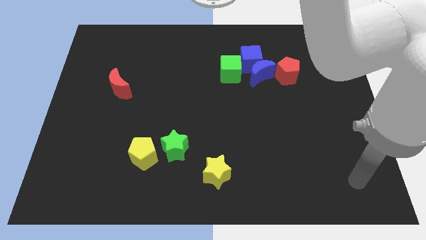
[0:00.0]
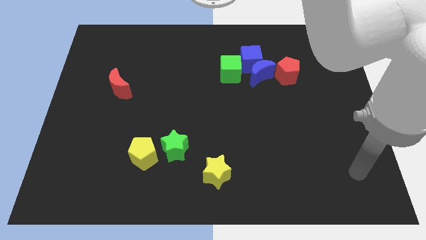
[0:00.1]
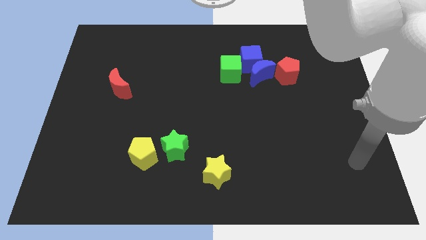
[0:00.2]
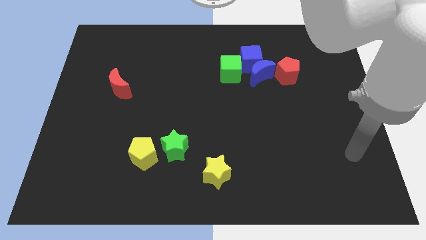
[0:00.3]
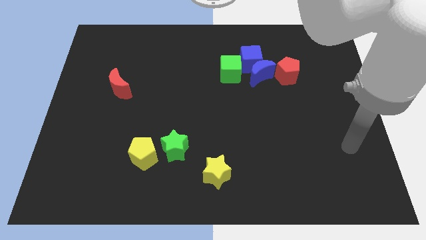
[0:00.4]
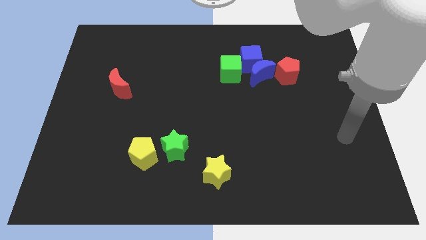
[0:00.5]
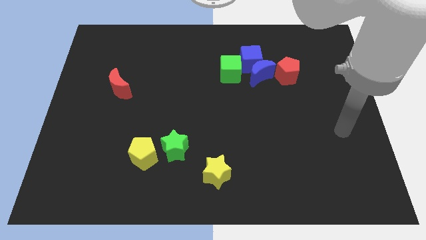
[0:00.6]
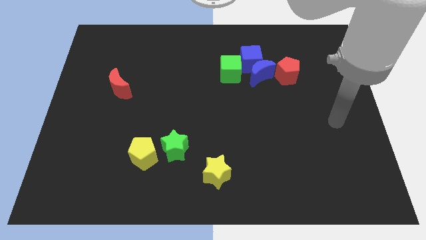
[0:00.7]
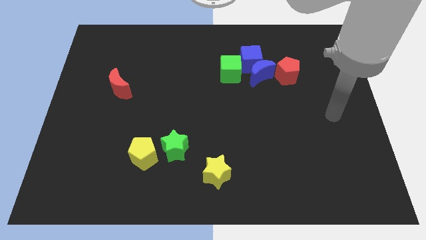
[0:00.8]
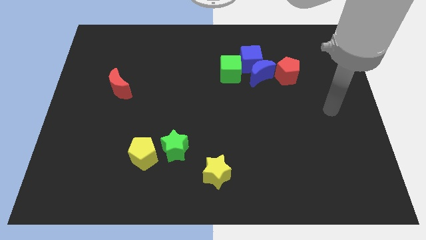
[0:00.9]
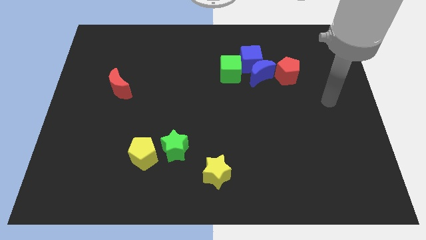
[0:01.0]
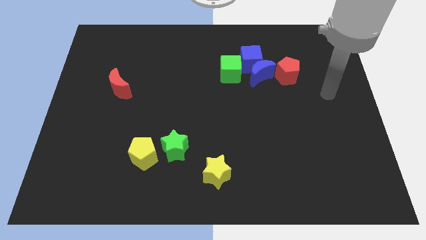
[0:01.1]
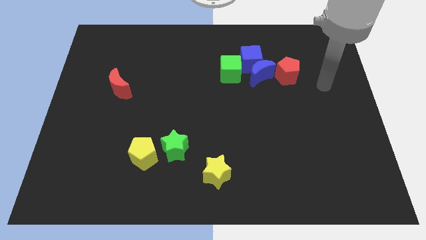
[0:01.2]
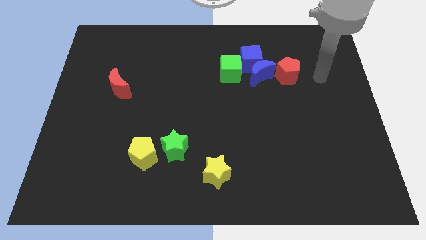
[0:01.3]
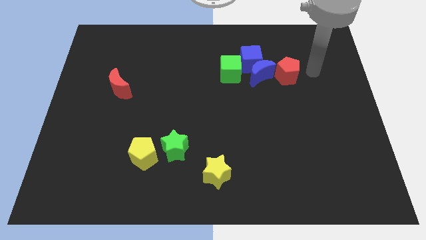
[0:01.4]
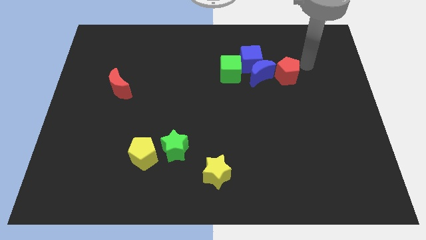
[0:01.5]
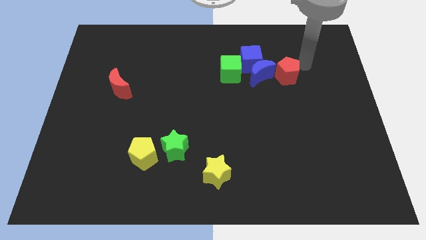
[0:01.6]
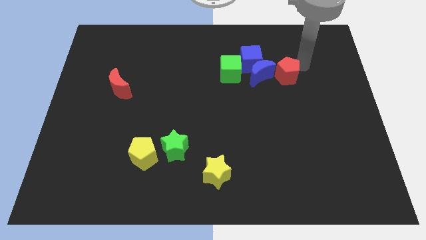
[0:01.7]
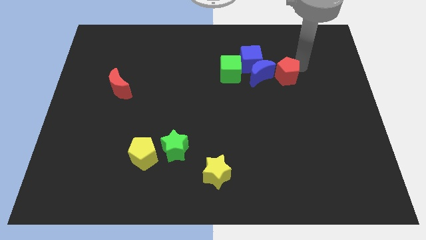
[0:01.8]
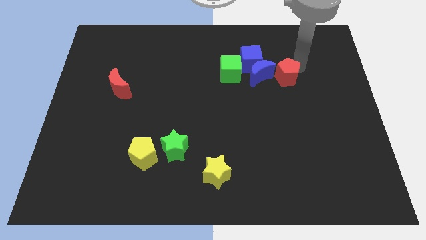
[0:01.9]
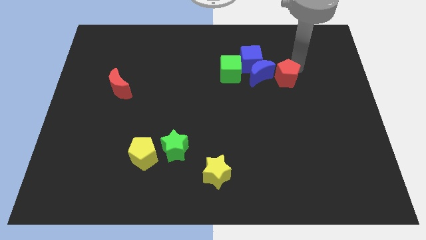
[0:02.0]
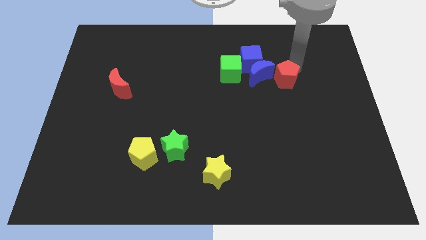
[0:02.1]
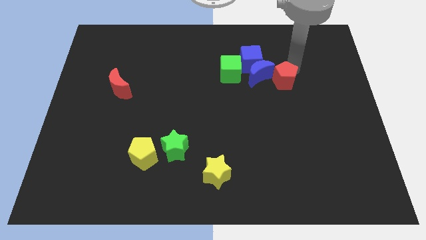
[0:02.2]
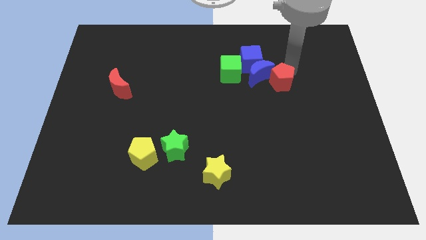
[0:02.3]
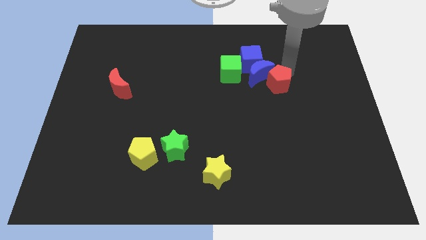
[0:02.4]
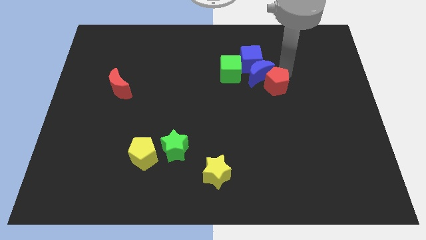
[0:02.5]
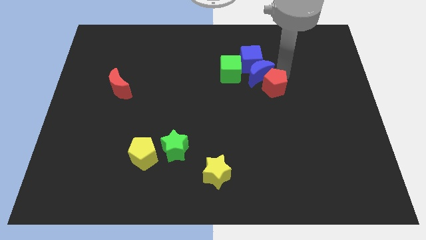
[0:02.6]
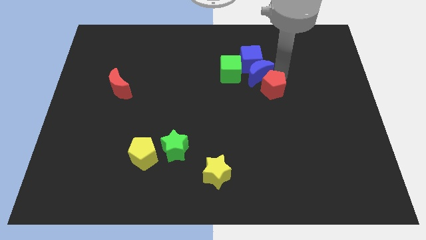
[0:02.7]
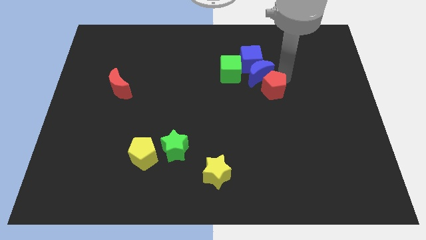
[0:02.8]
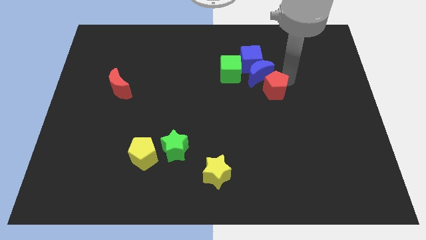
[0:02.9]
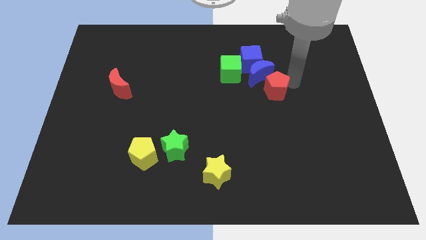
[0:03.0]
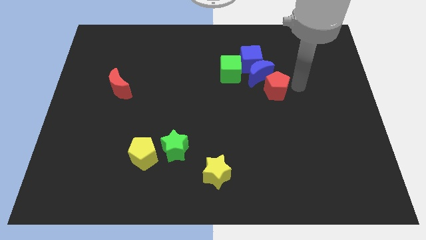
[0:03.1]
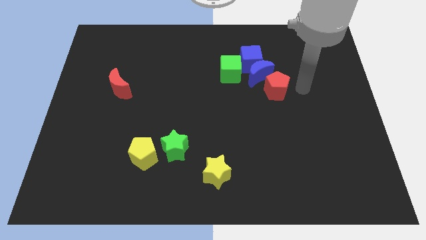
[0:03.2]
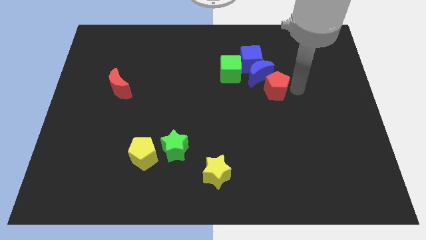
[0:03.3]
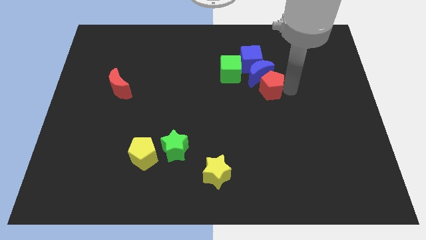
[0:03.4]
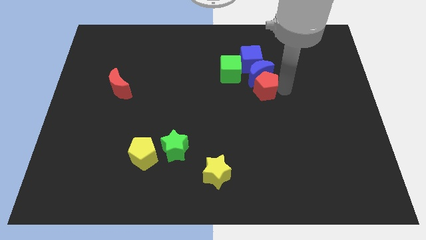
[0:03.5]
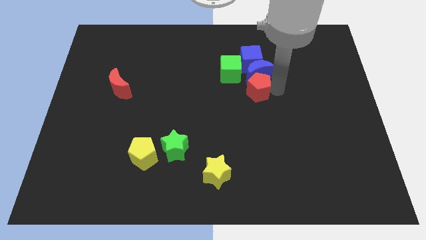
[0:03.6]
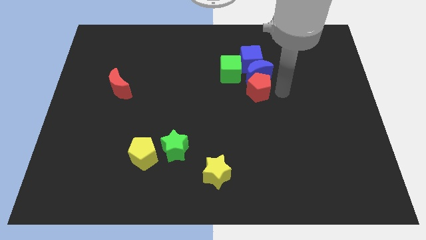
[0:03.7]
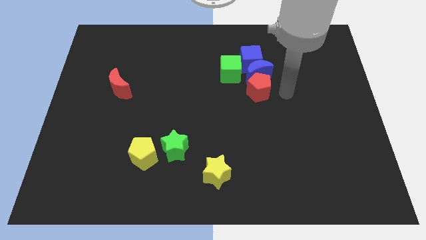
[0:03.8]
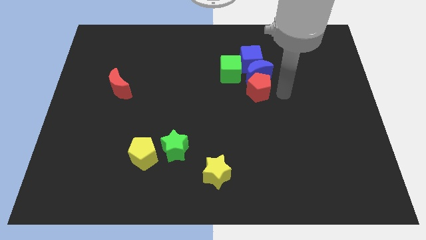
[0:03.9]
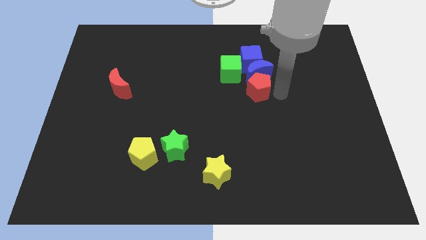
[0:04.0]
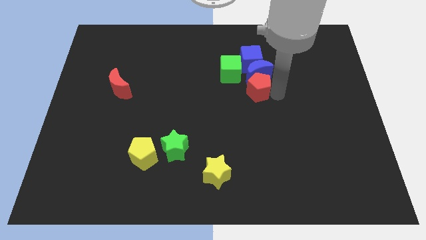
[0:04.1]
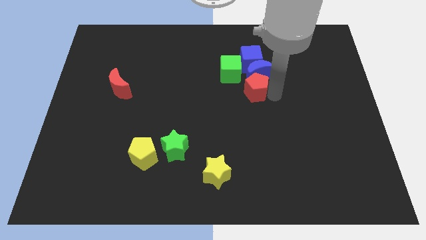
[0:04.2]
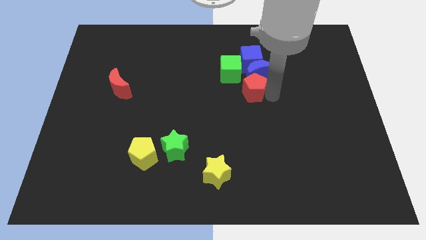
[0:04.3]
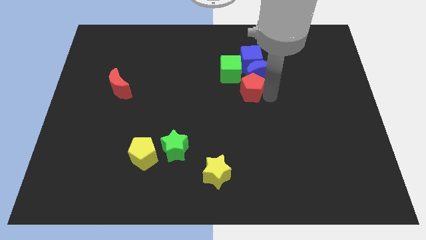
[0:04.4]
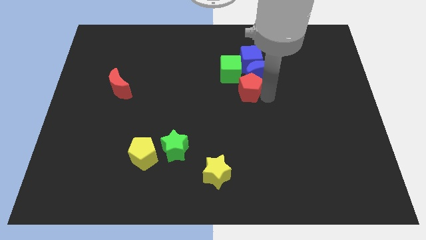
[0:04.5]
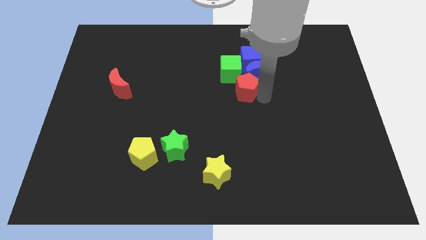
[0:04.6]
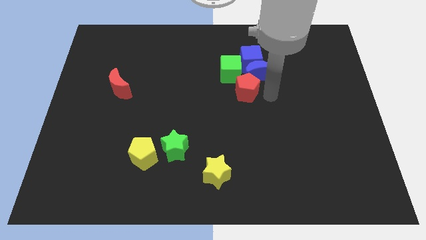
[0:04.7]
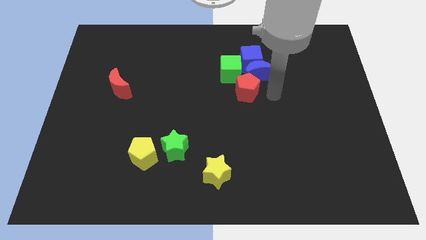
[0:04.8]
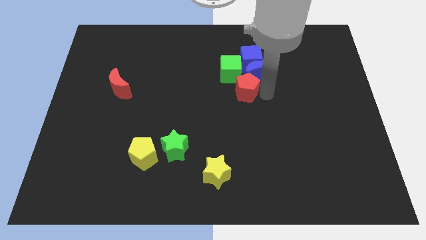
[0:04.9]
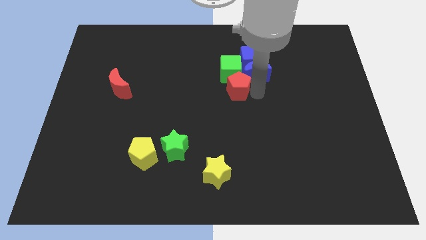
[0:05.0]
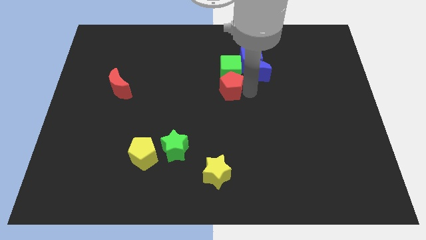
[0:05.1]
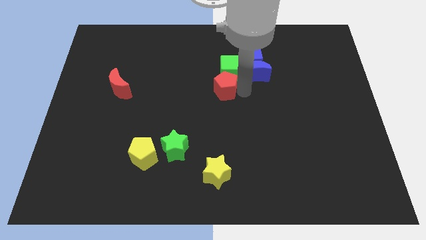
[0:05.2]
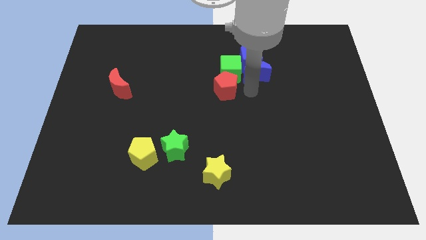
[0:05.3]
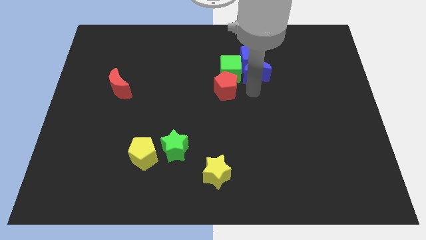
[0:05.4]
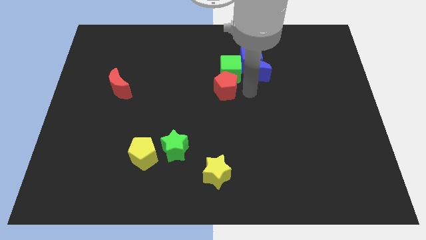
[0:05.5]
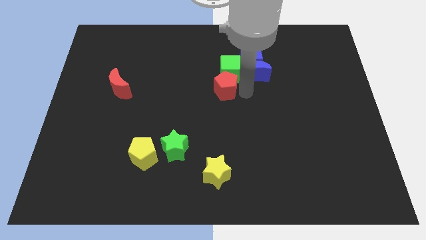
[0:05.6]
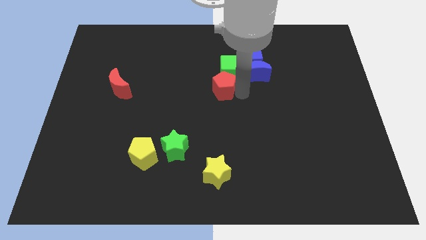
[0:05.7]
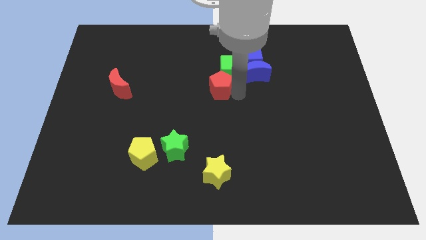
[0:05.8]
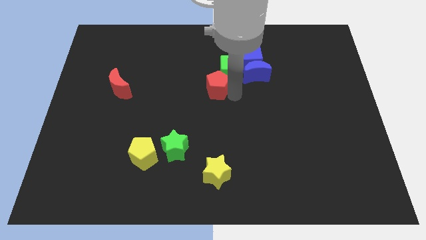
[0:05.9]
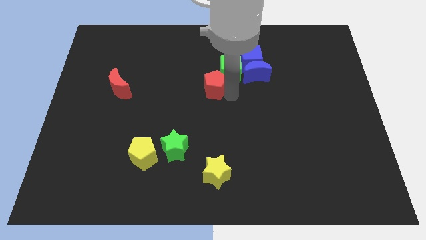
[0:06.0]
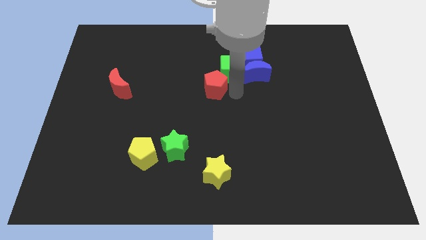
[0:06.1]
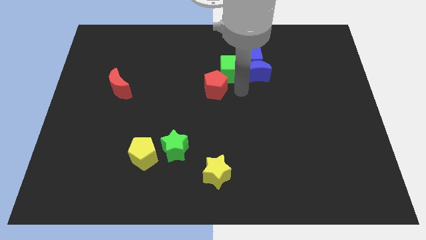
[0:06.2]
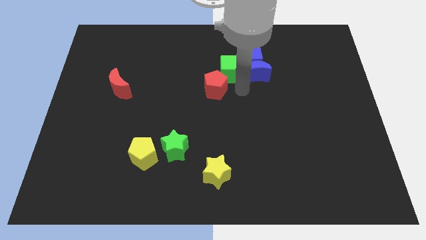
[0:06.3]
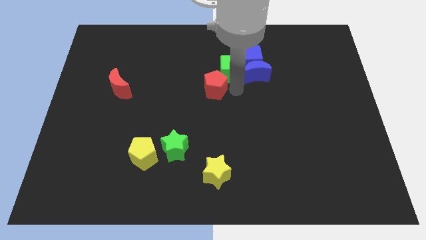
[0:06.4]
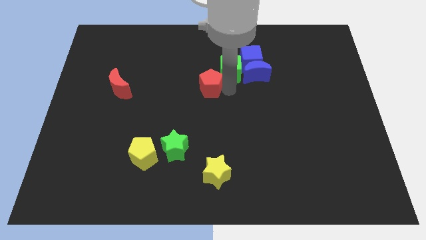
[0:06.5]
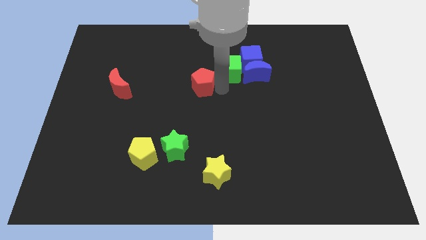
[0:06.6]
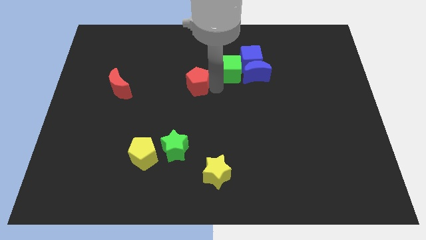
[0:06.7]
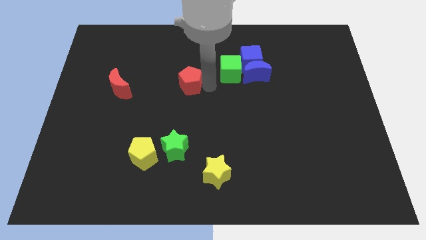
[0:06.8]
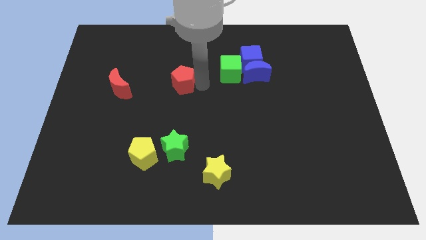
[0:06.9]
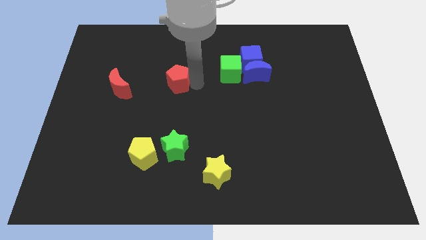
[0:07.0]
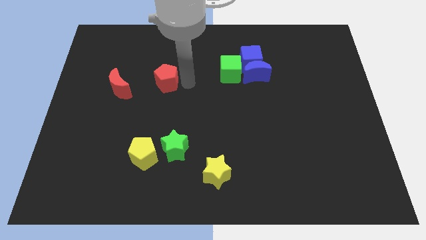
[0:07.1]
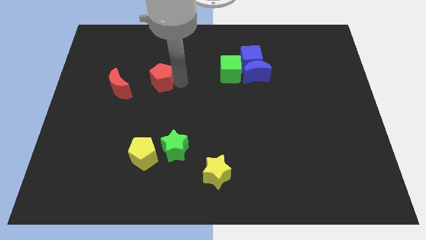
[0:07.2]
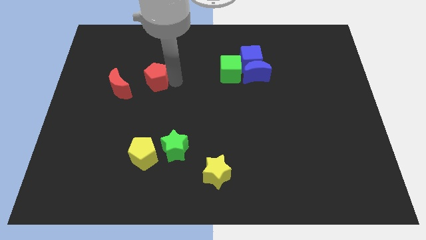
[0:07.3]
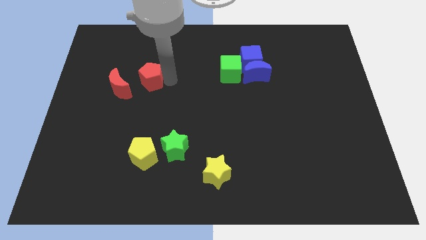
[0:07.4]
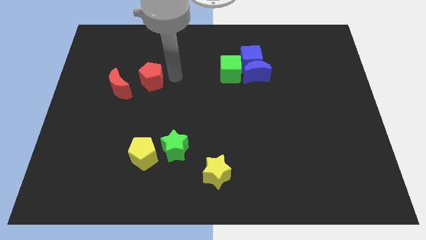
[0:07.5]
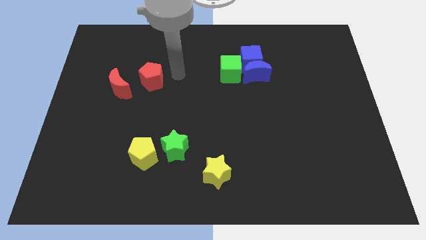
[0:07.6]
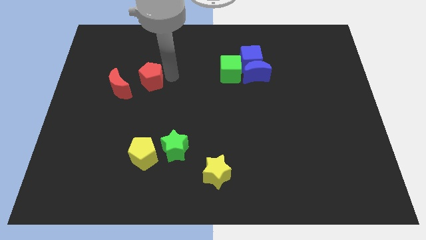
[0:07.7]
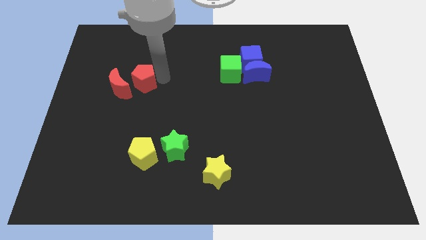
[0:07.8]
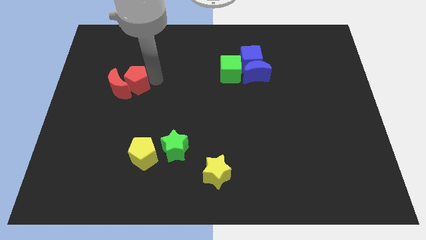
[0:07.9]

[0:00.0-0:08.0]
push the red pentagon to the red moon
